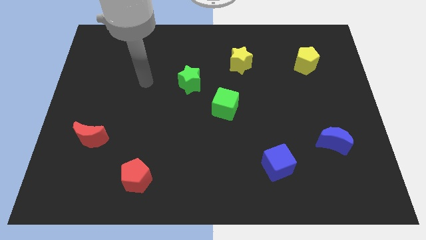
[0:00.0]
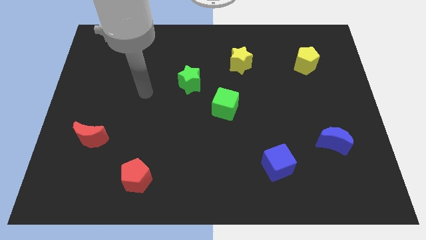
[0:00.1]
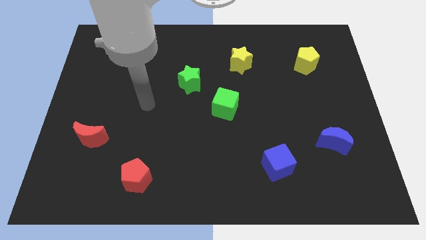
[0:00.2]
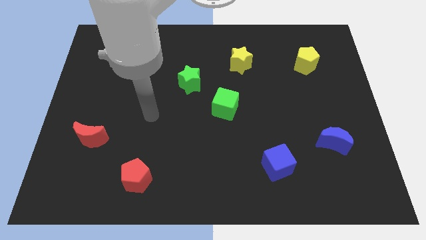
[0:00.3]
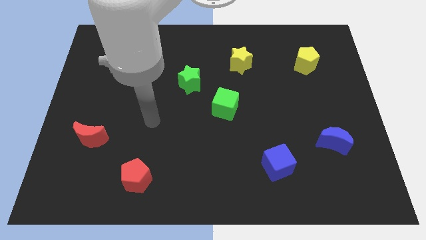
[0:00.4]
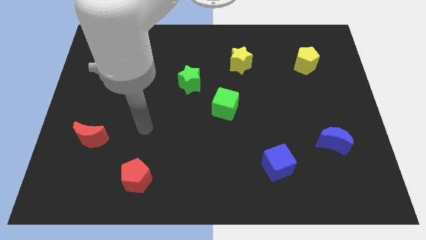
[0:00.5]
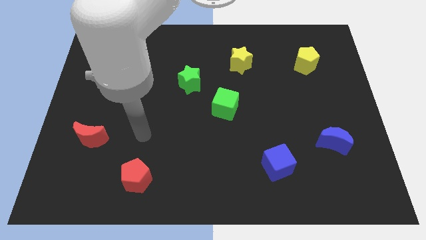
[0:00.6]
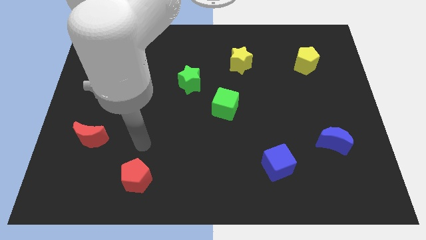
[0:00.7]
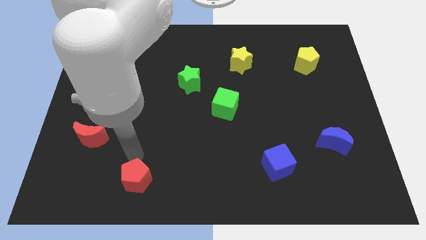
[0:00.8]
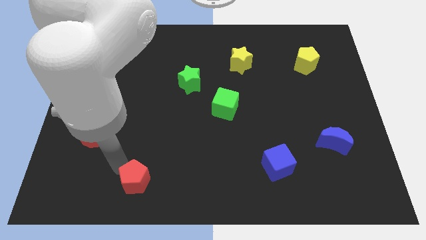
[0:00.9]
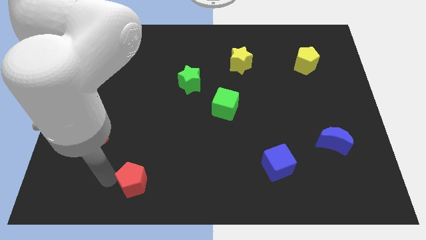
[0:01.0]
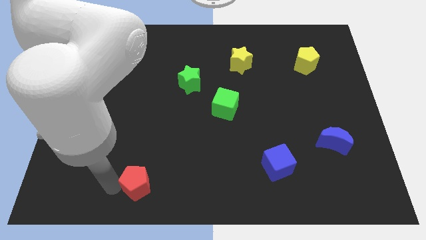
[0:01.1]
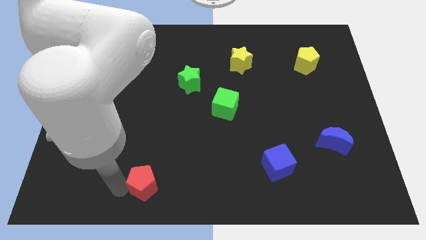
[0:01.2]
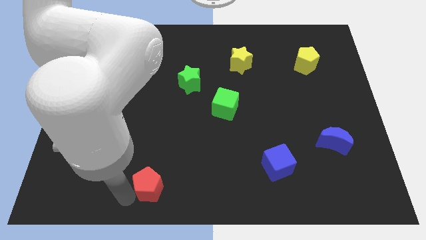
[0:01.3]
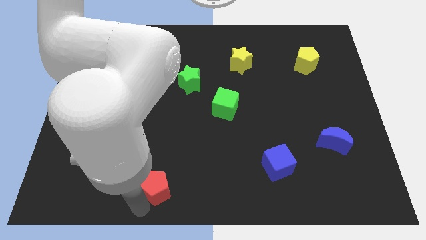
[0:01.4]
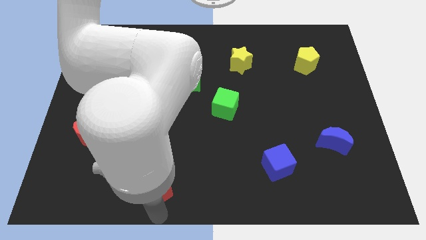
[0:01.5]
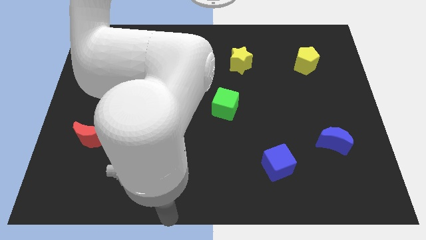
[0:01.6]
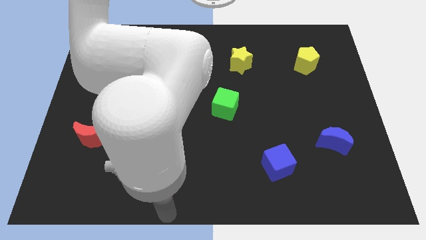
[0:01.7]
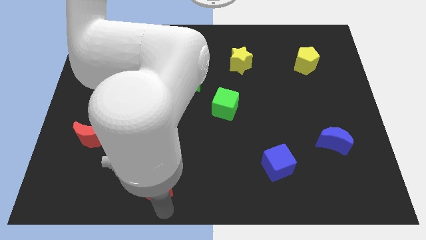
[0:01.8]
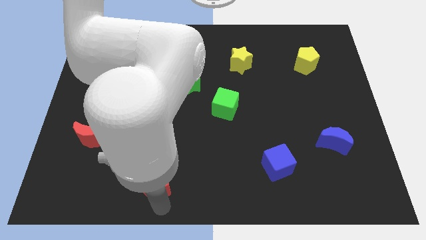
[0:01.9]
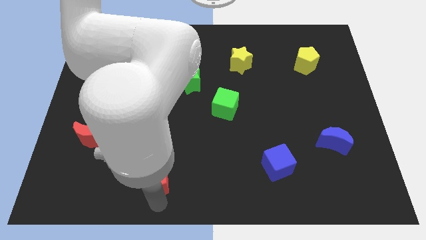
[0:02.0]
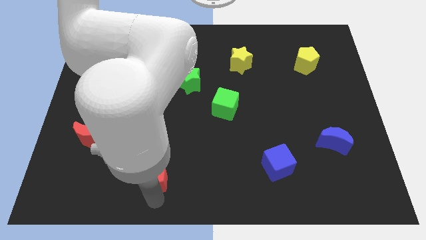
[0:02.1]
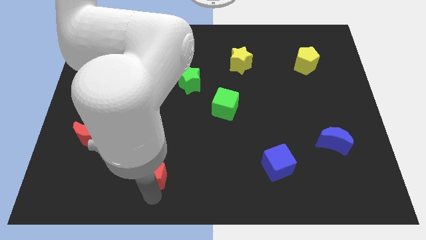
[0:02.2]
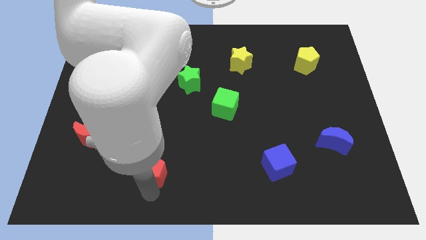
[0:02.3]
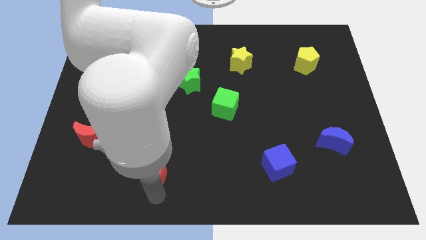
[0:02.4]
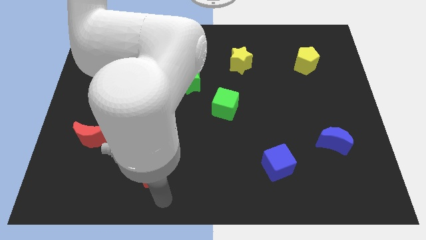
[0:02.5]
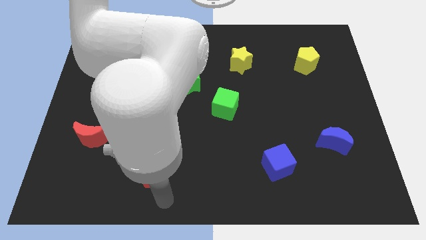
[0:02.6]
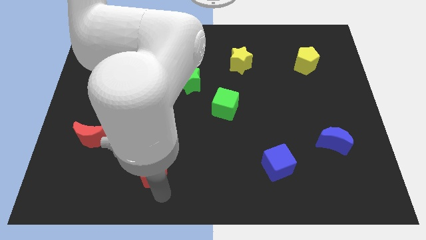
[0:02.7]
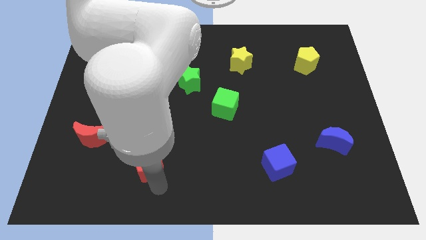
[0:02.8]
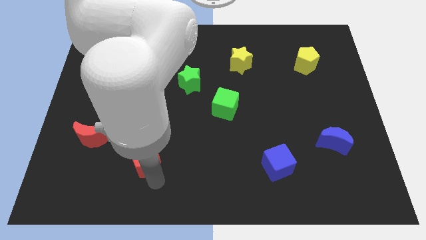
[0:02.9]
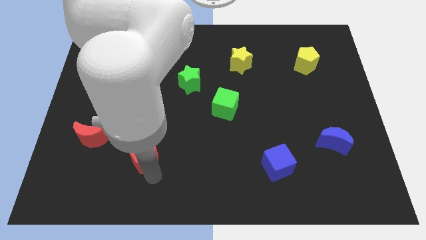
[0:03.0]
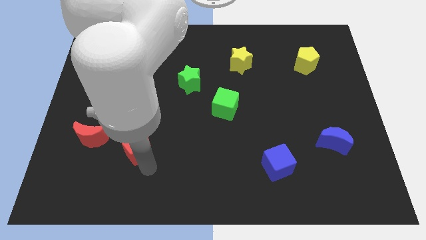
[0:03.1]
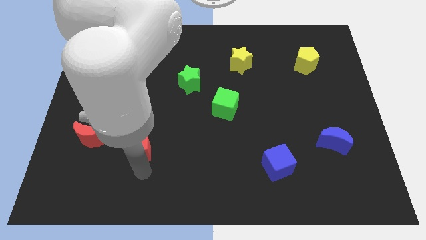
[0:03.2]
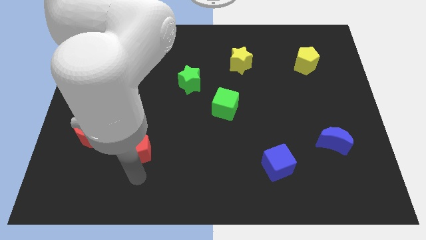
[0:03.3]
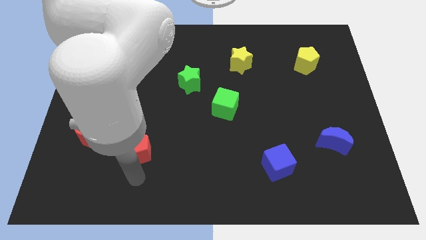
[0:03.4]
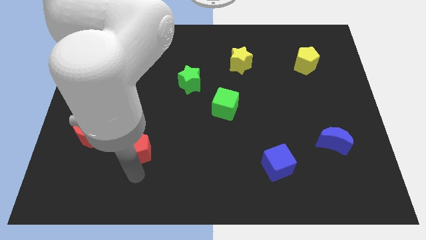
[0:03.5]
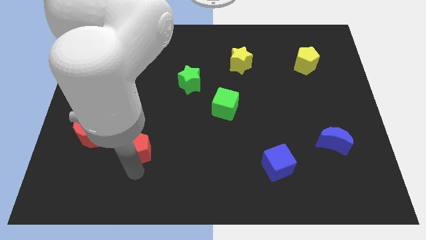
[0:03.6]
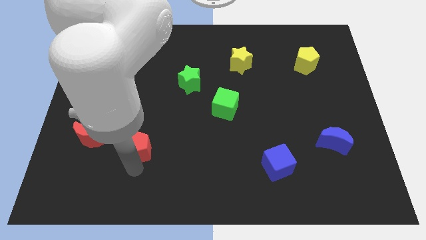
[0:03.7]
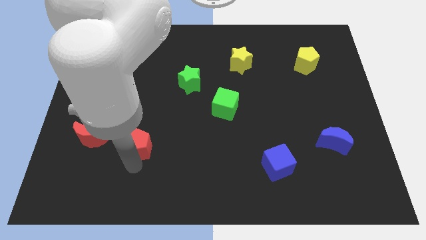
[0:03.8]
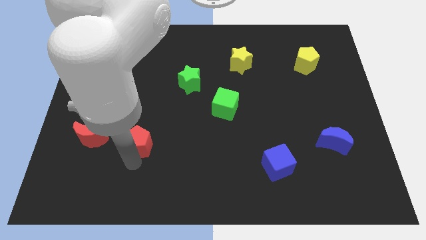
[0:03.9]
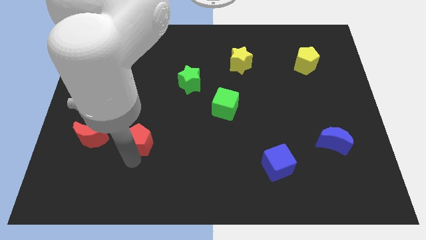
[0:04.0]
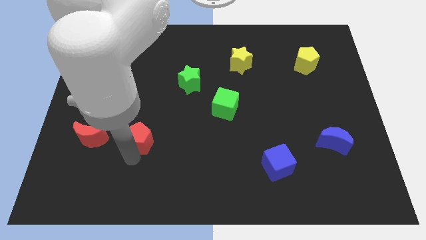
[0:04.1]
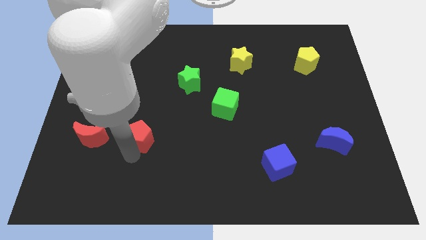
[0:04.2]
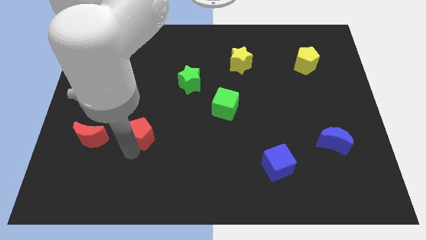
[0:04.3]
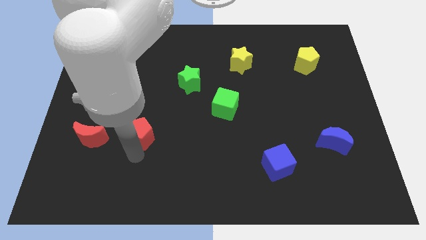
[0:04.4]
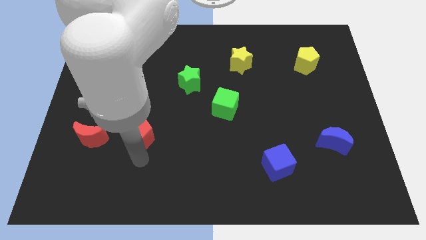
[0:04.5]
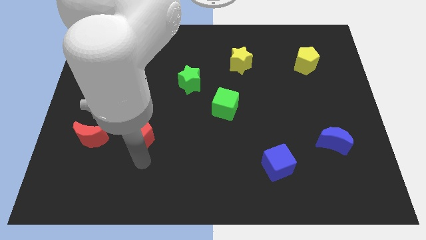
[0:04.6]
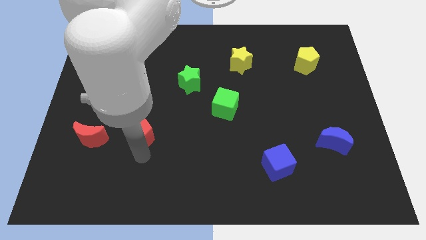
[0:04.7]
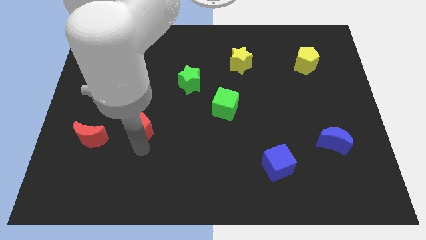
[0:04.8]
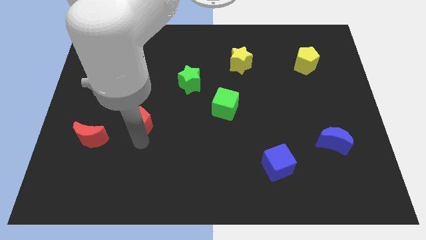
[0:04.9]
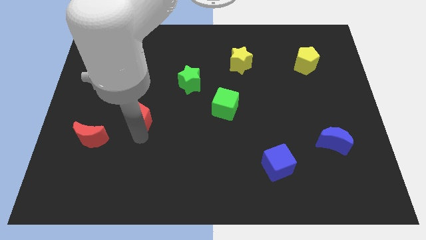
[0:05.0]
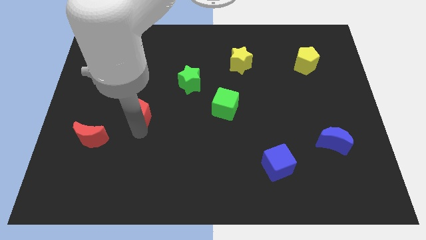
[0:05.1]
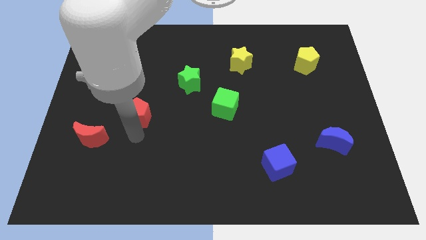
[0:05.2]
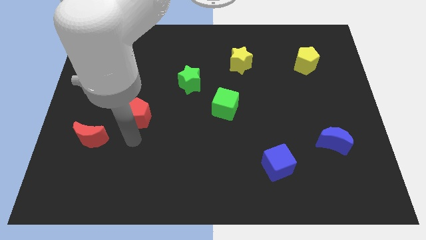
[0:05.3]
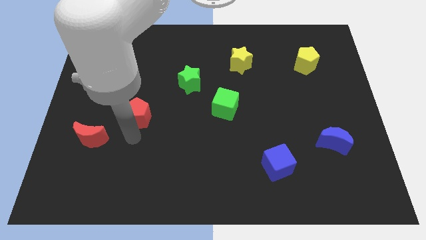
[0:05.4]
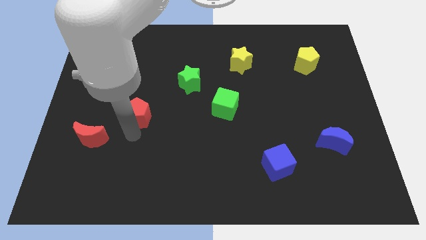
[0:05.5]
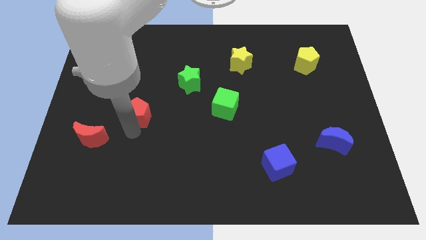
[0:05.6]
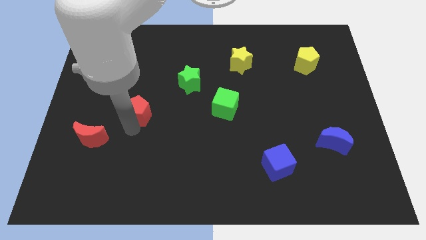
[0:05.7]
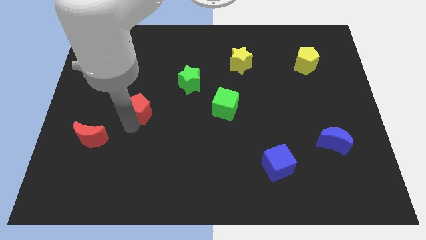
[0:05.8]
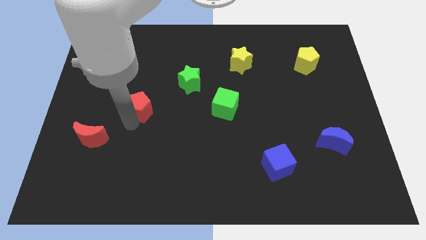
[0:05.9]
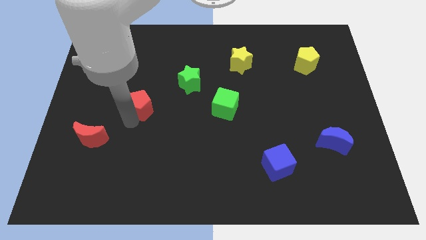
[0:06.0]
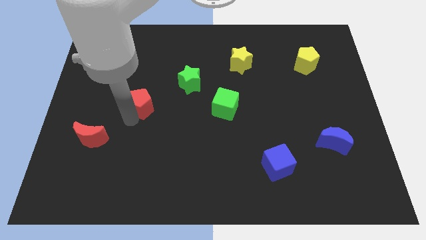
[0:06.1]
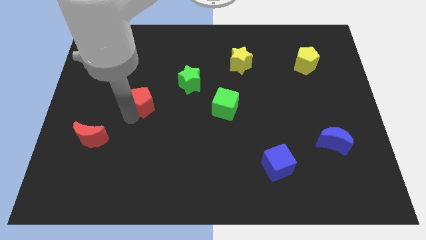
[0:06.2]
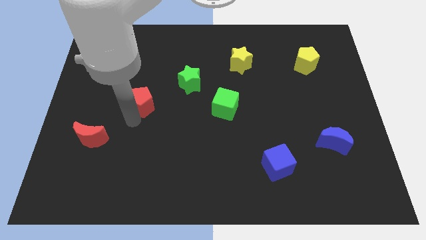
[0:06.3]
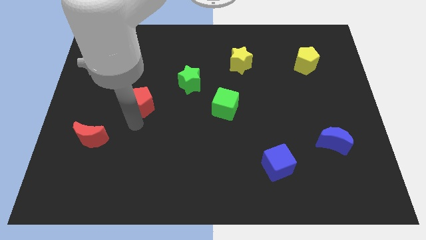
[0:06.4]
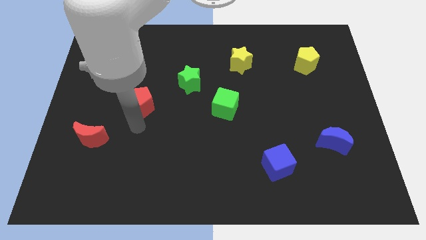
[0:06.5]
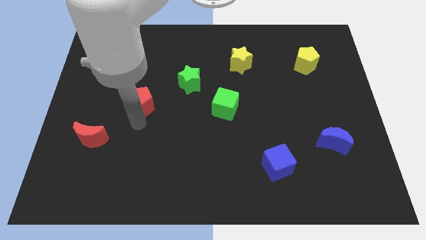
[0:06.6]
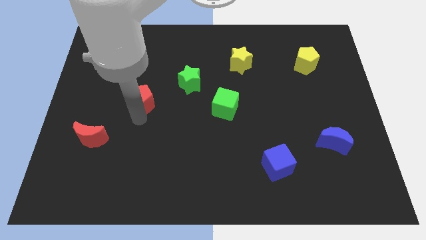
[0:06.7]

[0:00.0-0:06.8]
slide the red pentagon up

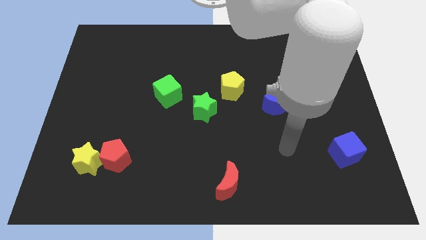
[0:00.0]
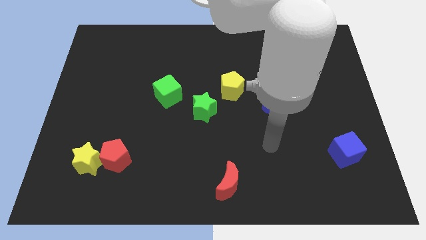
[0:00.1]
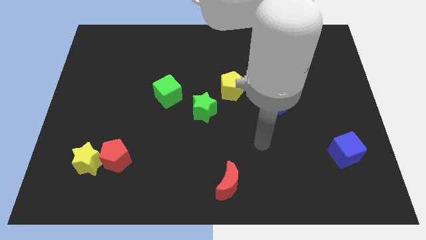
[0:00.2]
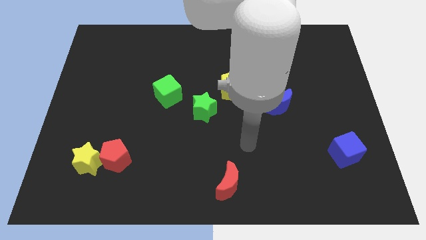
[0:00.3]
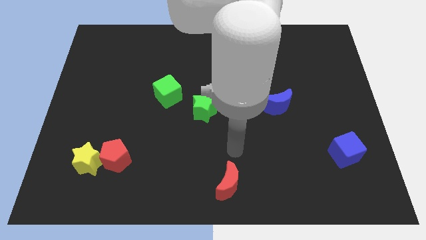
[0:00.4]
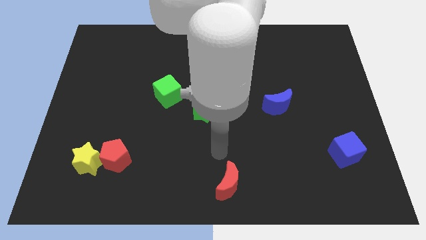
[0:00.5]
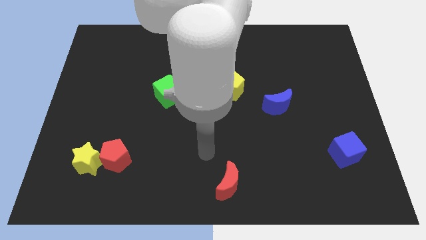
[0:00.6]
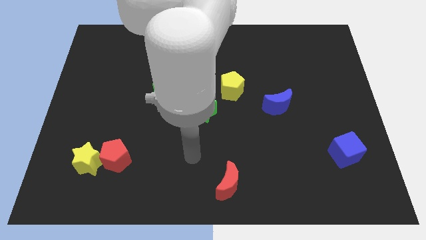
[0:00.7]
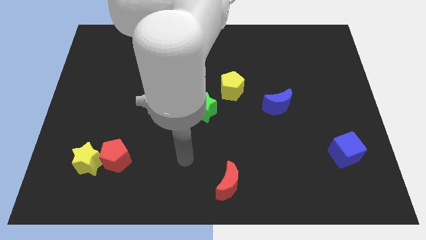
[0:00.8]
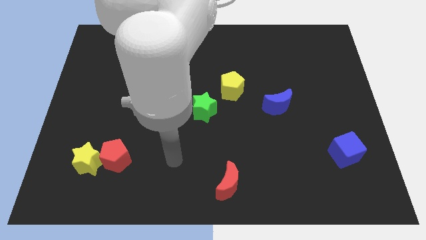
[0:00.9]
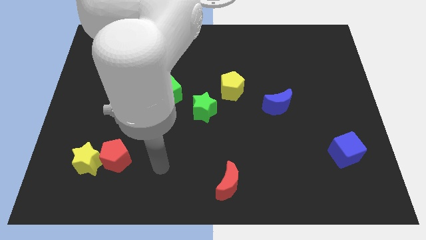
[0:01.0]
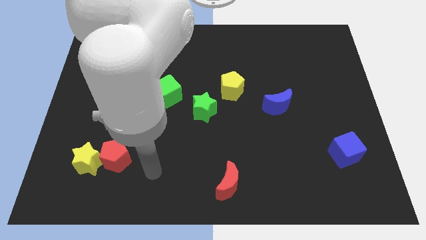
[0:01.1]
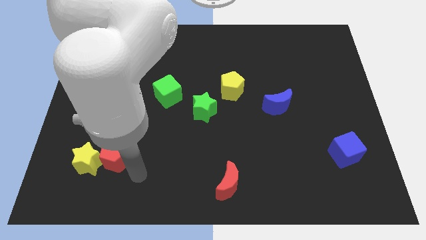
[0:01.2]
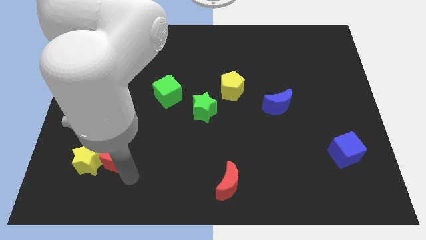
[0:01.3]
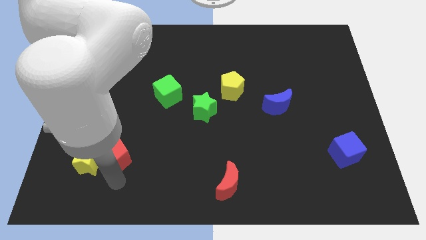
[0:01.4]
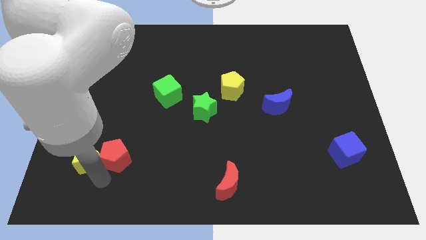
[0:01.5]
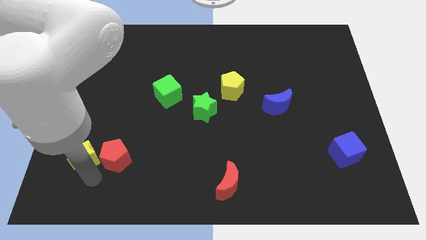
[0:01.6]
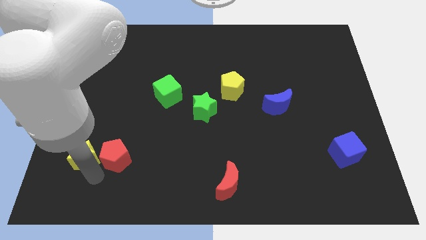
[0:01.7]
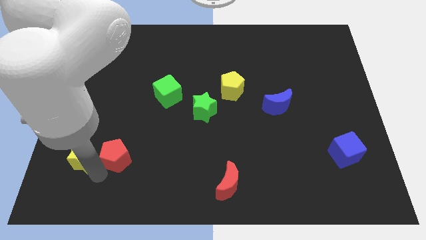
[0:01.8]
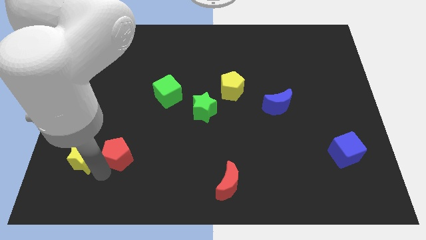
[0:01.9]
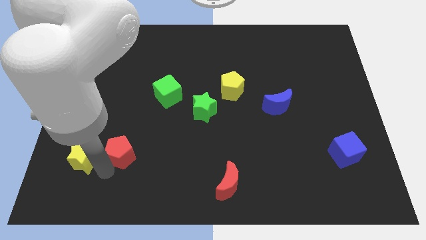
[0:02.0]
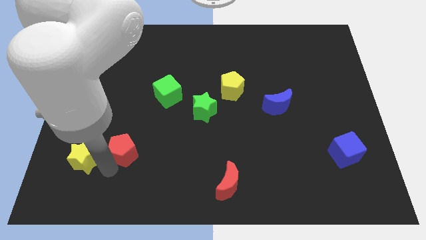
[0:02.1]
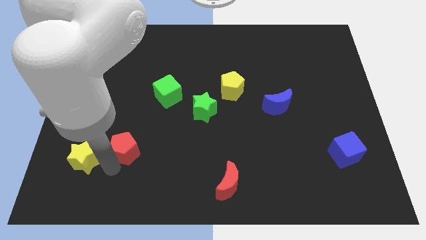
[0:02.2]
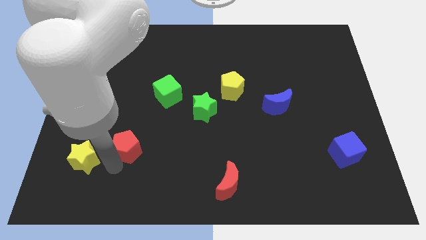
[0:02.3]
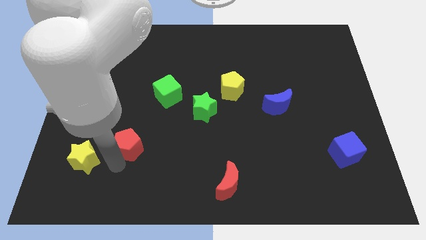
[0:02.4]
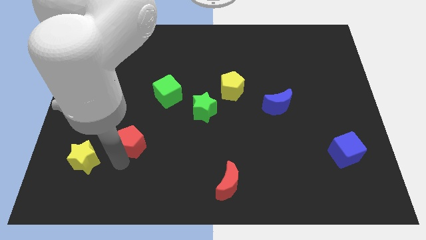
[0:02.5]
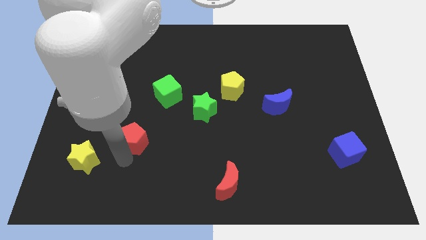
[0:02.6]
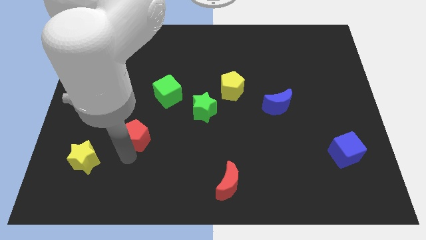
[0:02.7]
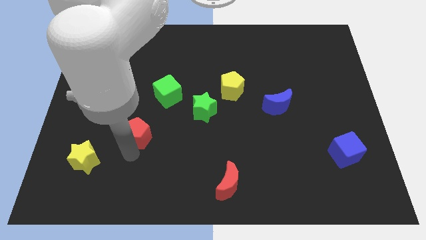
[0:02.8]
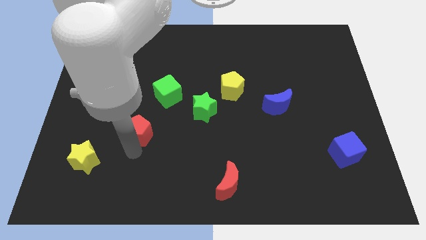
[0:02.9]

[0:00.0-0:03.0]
slightly push the red pentagon upwards and to the right
